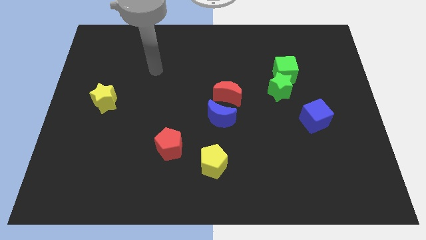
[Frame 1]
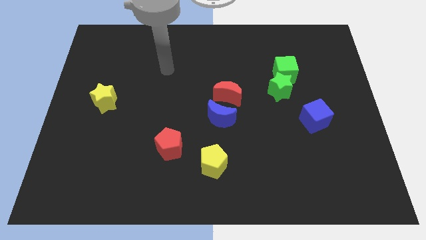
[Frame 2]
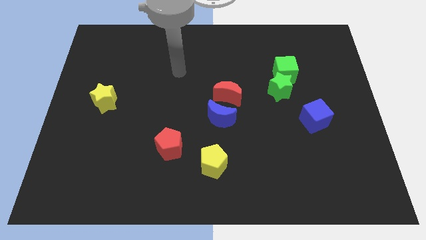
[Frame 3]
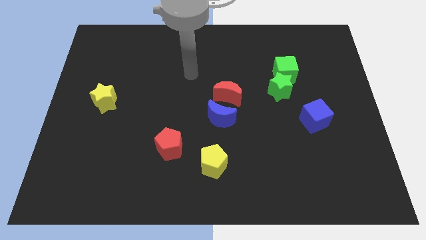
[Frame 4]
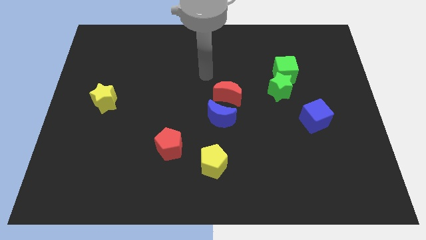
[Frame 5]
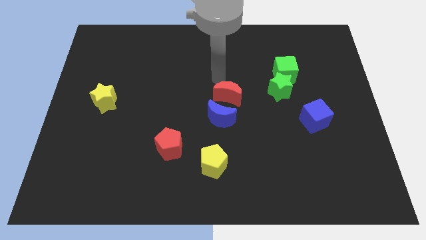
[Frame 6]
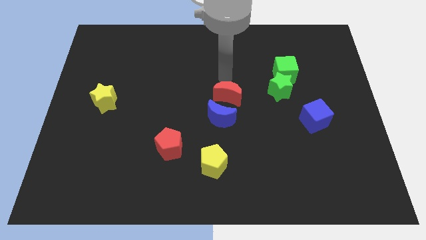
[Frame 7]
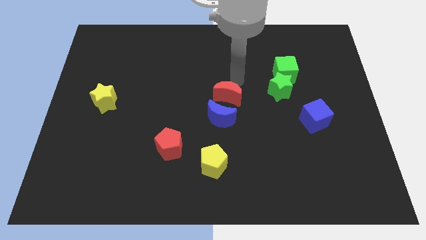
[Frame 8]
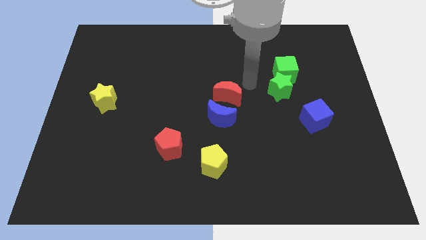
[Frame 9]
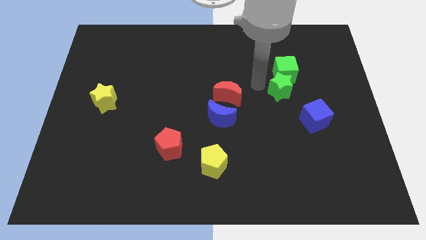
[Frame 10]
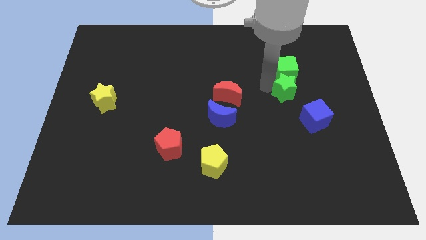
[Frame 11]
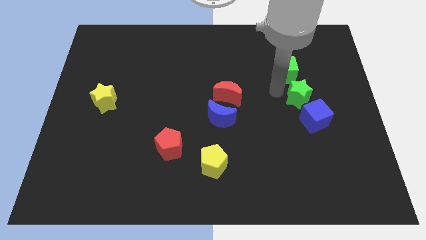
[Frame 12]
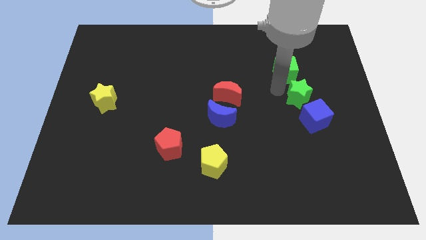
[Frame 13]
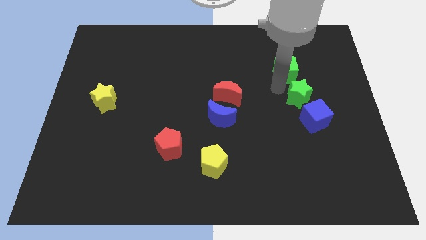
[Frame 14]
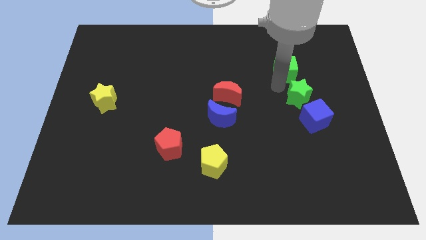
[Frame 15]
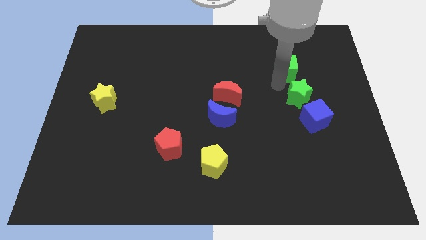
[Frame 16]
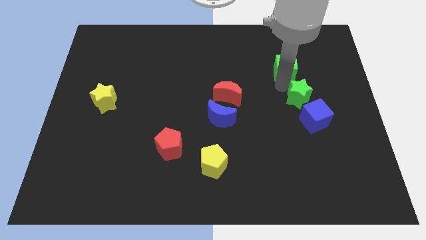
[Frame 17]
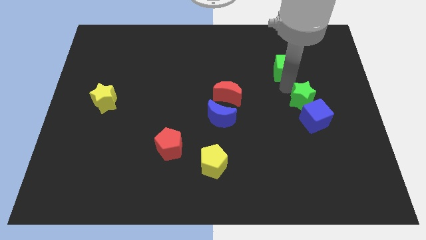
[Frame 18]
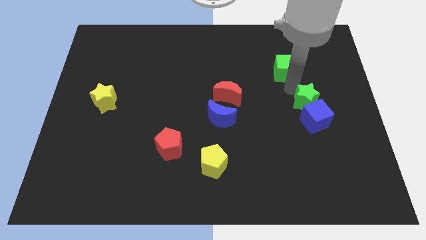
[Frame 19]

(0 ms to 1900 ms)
separate the green cube from the green star

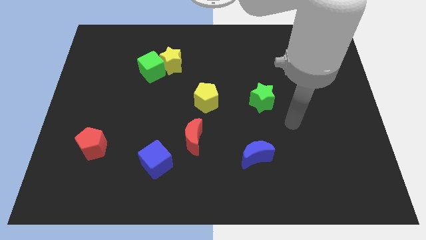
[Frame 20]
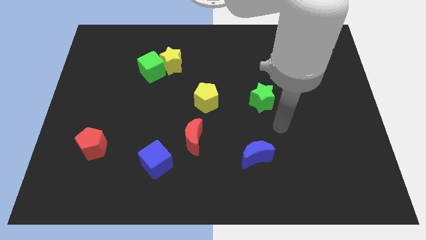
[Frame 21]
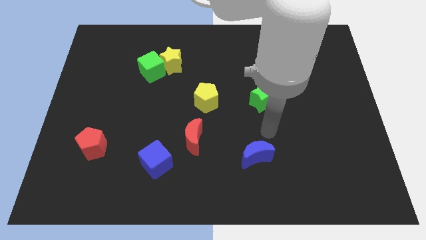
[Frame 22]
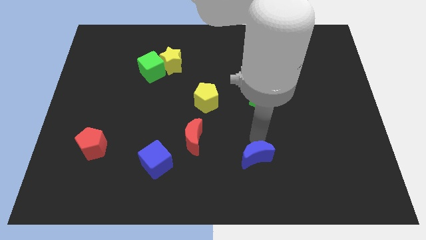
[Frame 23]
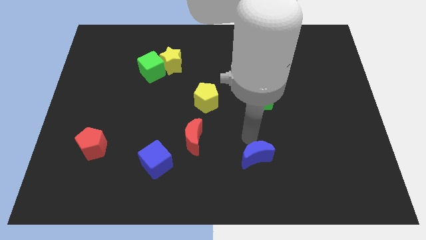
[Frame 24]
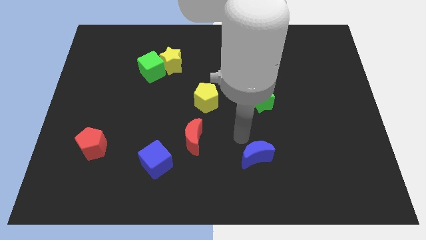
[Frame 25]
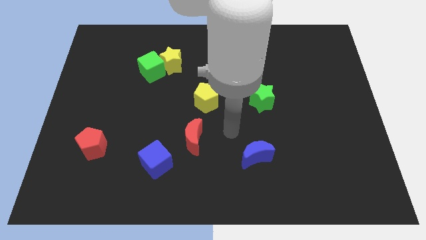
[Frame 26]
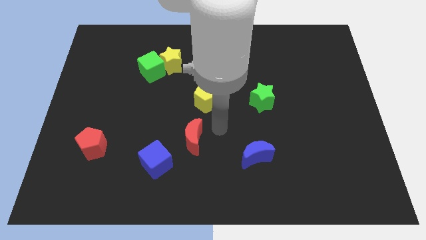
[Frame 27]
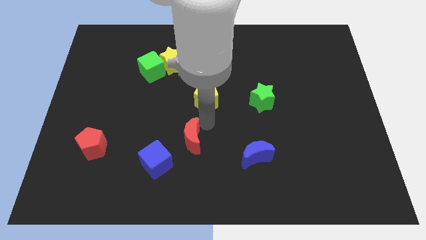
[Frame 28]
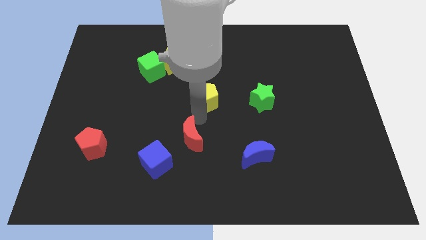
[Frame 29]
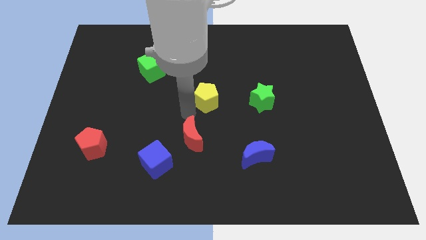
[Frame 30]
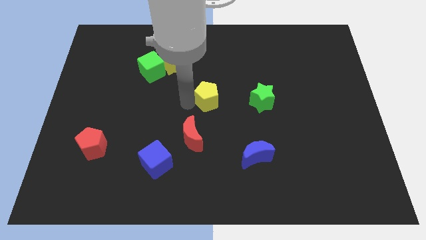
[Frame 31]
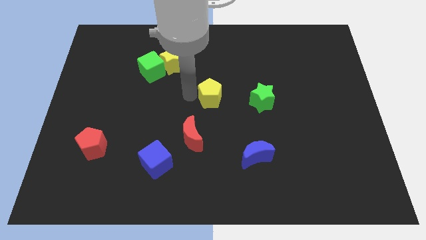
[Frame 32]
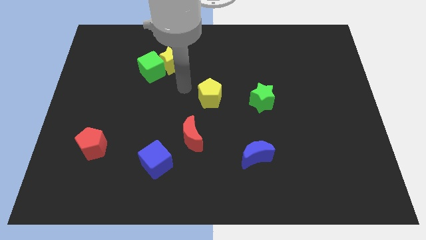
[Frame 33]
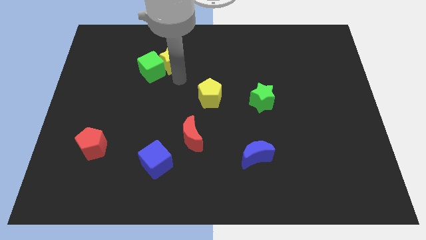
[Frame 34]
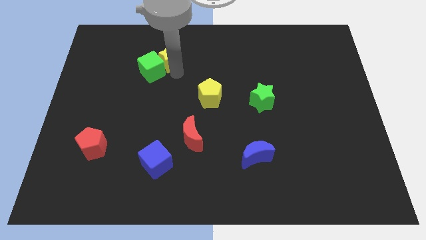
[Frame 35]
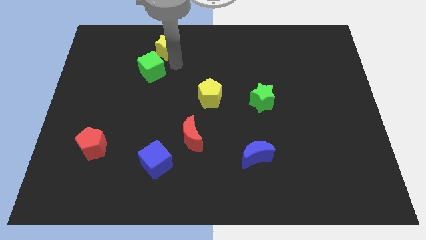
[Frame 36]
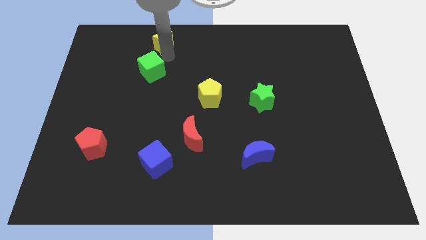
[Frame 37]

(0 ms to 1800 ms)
move the green cube away from the yellow star

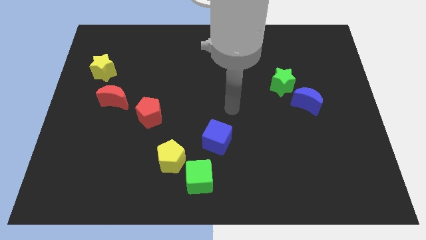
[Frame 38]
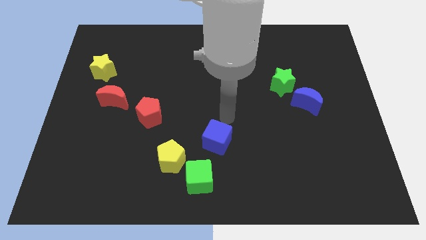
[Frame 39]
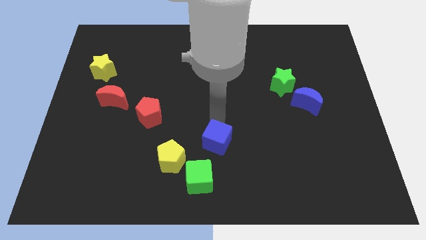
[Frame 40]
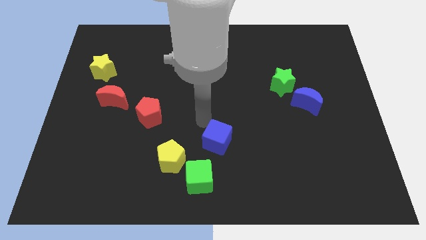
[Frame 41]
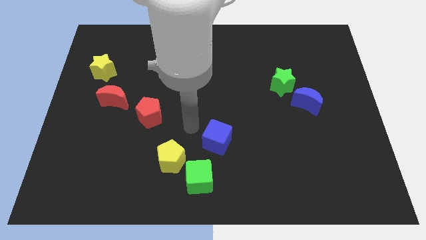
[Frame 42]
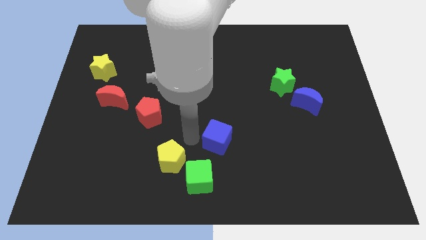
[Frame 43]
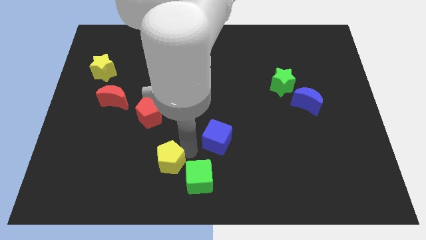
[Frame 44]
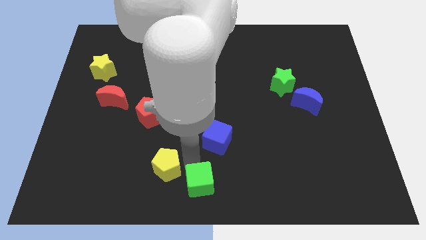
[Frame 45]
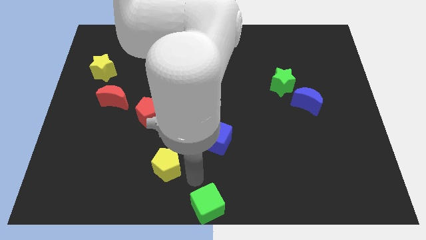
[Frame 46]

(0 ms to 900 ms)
move the yellow pentagon away from the green cube

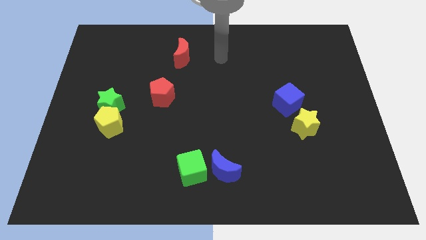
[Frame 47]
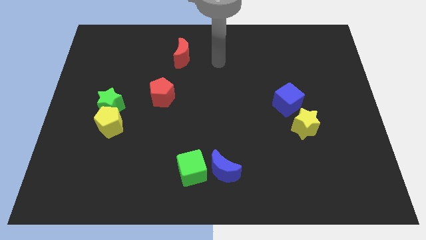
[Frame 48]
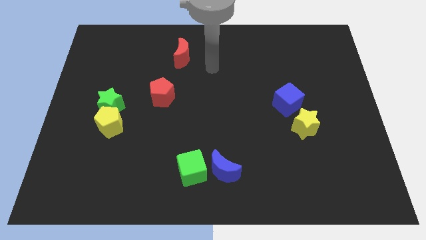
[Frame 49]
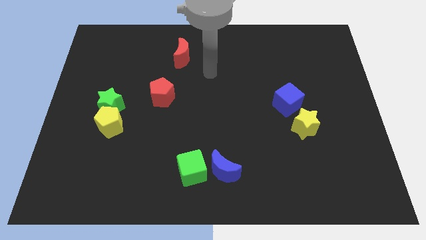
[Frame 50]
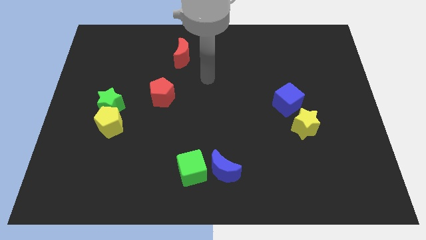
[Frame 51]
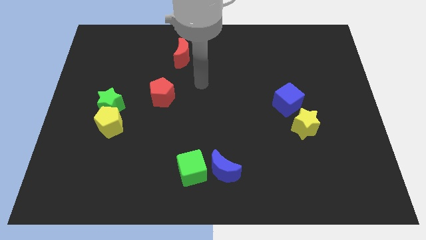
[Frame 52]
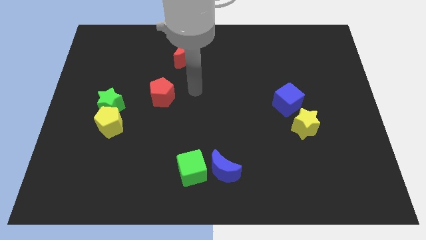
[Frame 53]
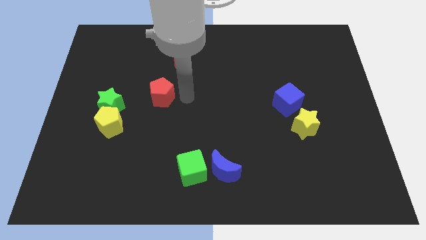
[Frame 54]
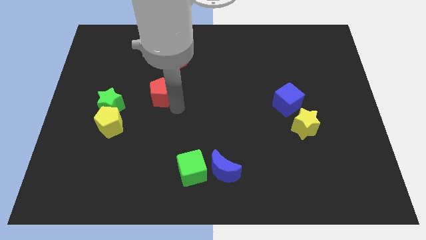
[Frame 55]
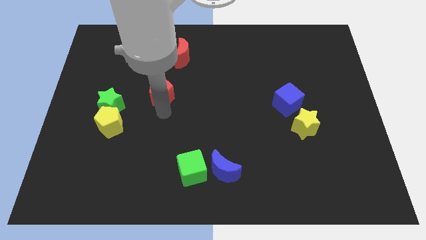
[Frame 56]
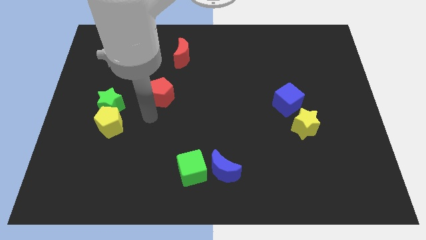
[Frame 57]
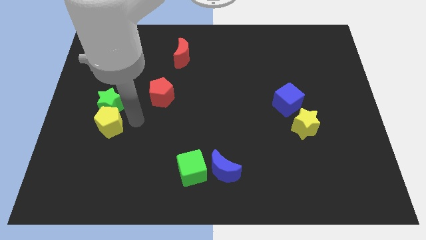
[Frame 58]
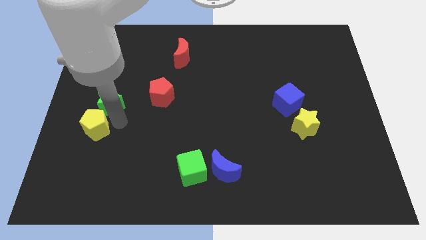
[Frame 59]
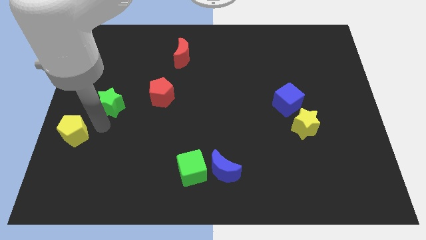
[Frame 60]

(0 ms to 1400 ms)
move the green star away from the yellow pentagon

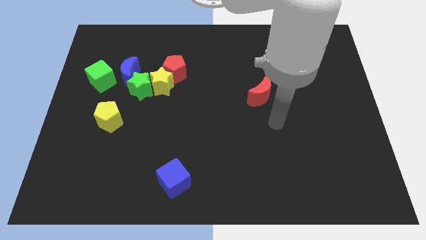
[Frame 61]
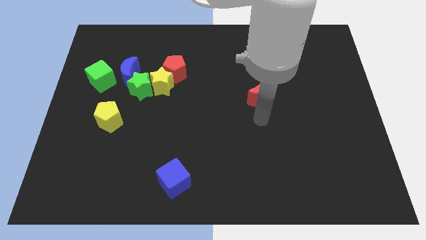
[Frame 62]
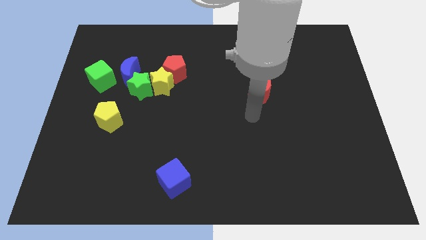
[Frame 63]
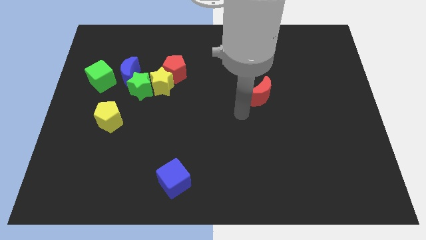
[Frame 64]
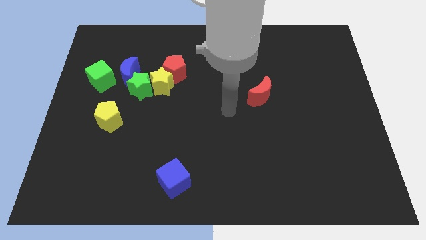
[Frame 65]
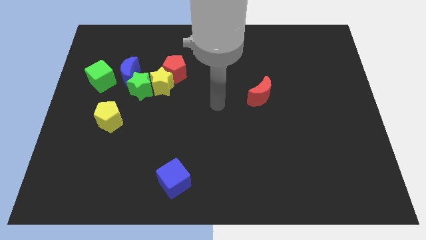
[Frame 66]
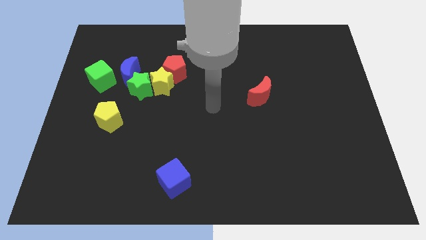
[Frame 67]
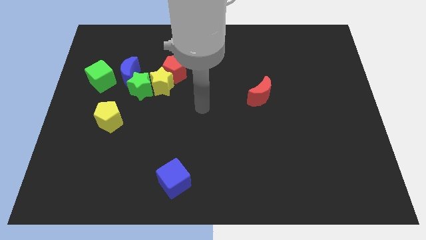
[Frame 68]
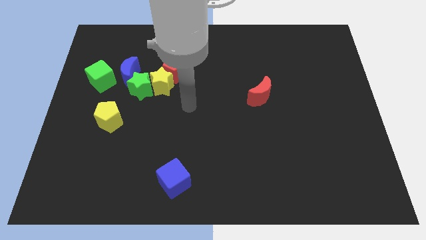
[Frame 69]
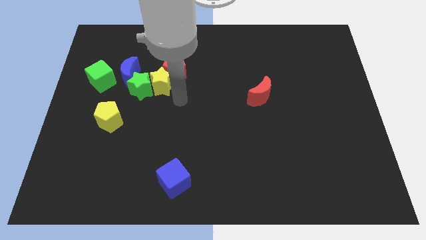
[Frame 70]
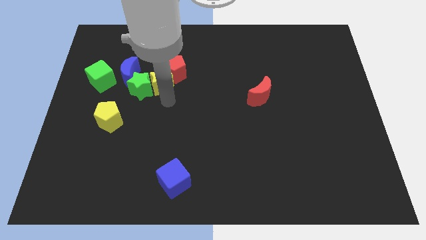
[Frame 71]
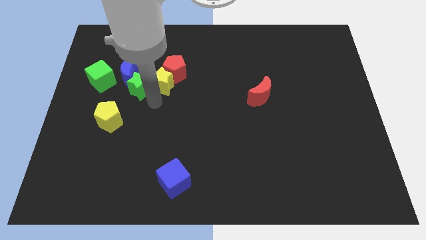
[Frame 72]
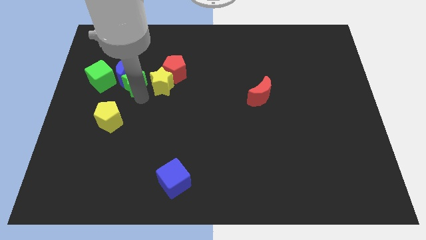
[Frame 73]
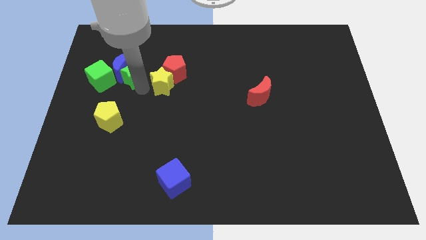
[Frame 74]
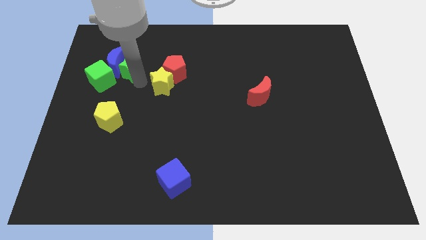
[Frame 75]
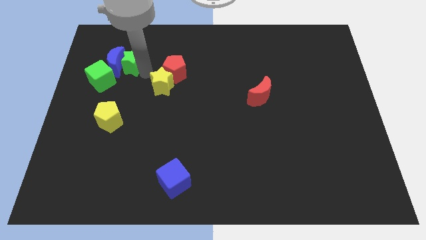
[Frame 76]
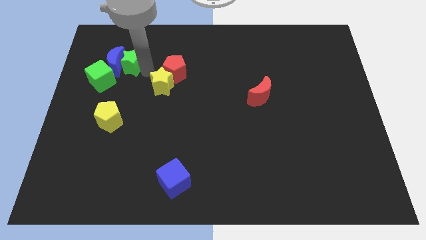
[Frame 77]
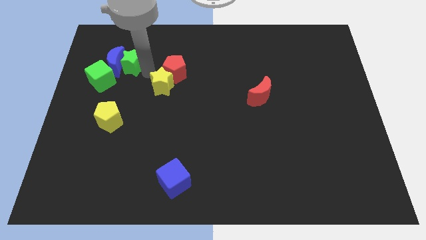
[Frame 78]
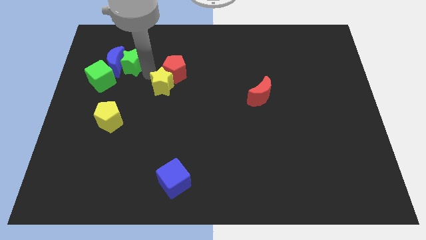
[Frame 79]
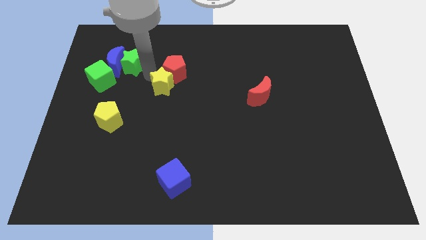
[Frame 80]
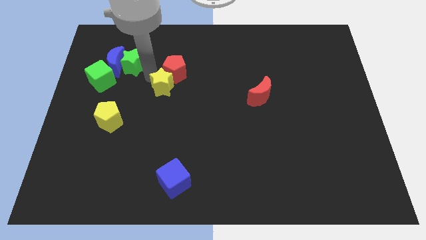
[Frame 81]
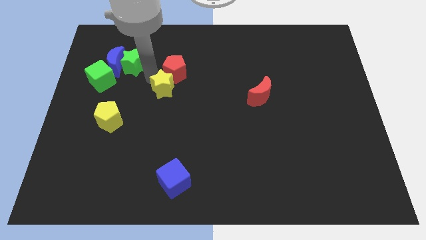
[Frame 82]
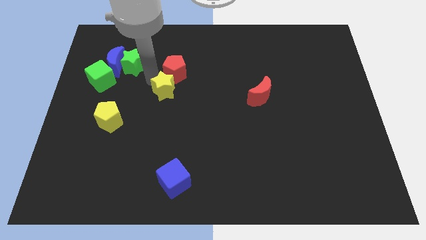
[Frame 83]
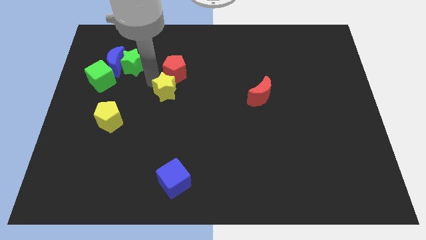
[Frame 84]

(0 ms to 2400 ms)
pull the yellow star apart from the group

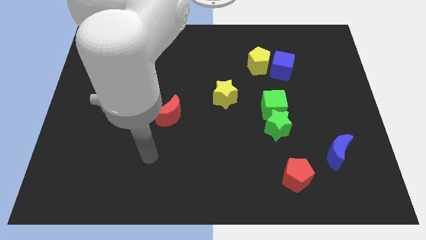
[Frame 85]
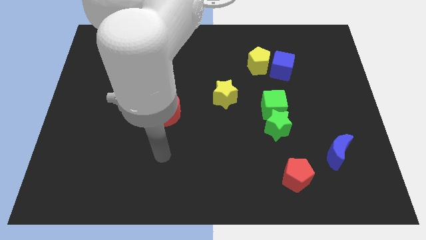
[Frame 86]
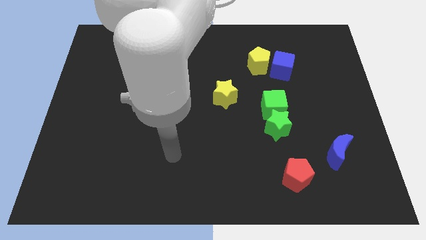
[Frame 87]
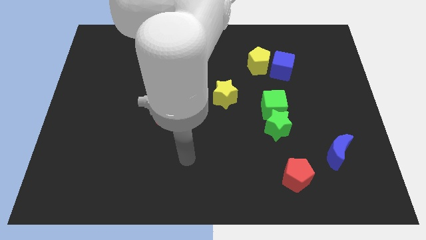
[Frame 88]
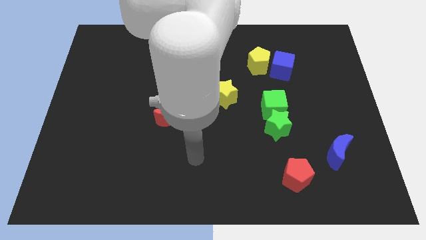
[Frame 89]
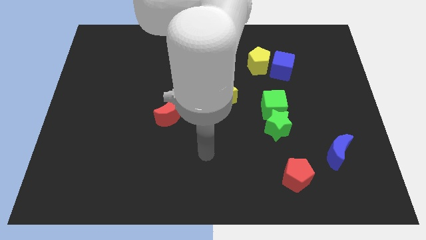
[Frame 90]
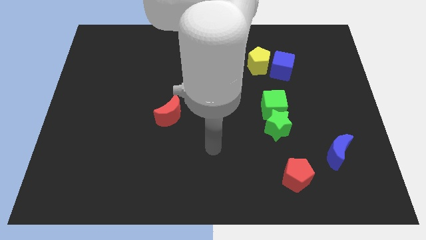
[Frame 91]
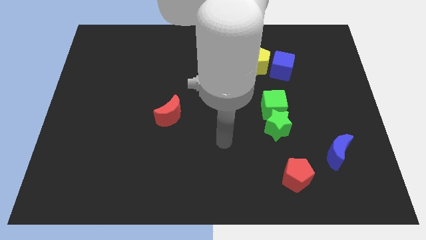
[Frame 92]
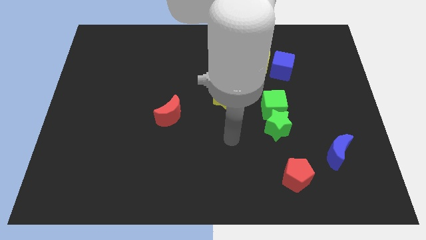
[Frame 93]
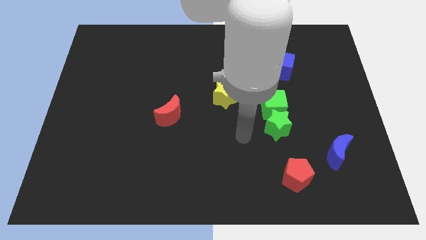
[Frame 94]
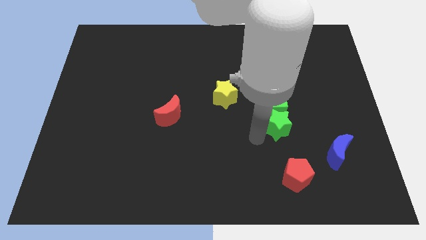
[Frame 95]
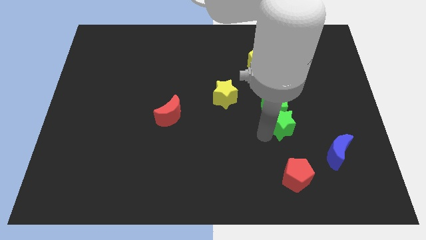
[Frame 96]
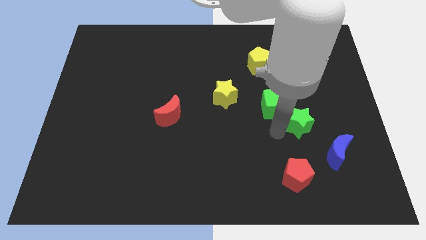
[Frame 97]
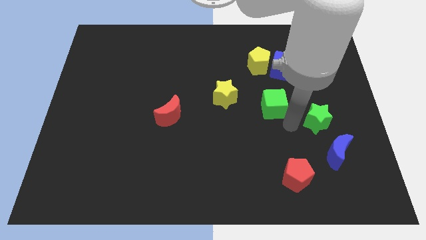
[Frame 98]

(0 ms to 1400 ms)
pull the green cube apart from the green star
